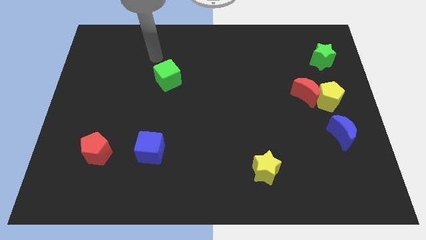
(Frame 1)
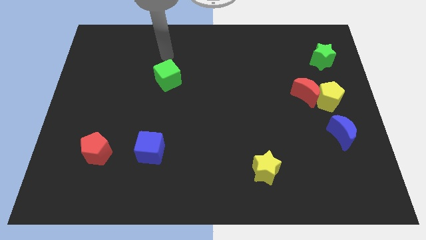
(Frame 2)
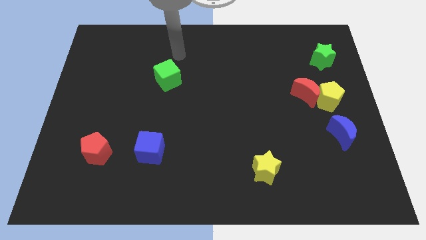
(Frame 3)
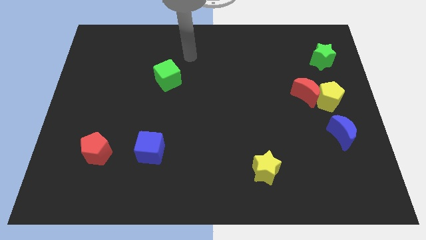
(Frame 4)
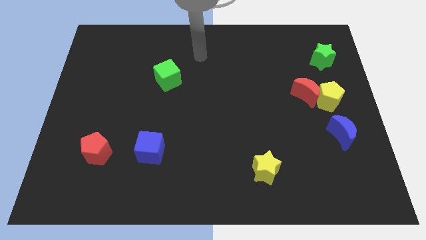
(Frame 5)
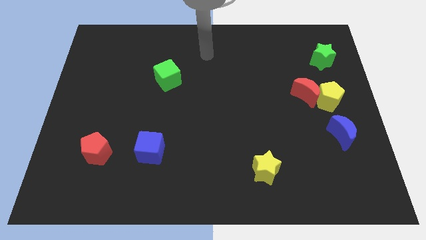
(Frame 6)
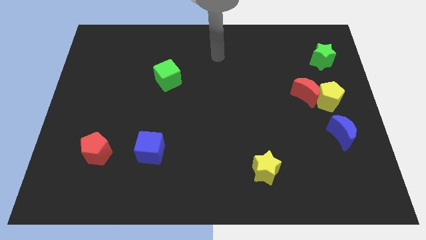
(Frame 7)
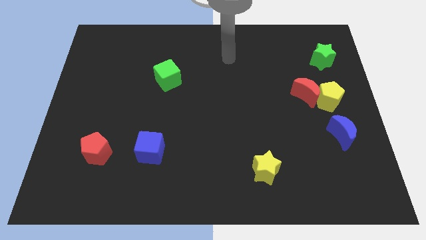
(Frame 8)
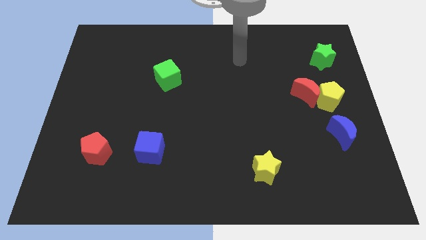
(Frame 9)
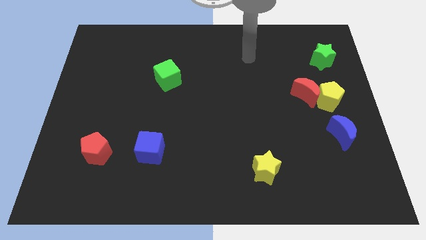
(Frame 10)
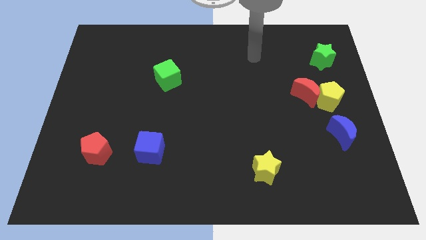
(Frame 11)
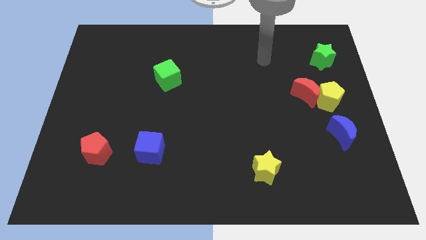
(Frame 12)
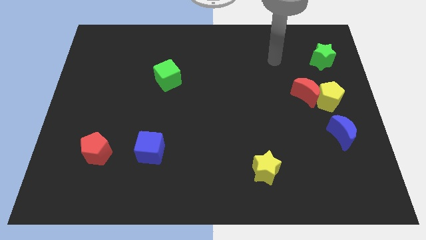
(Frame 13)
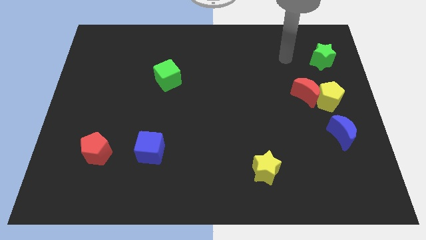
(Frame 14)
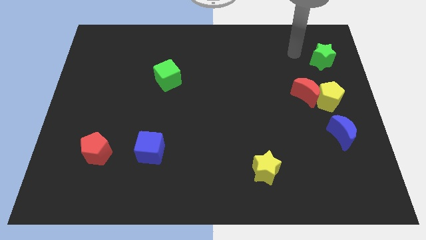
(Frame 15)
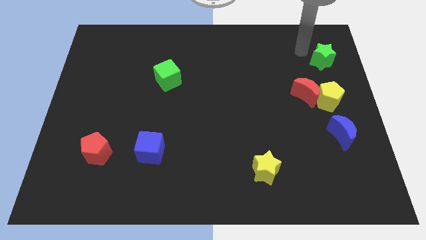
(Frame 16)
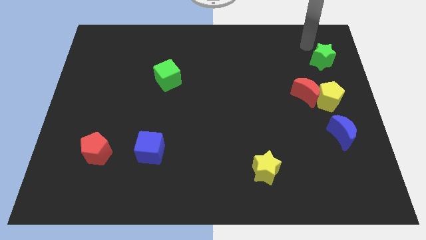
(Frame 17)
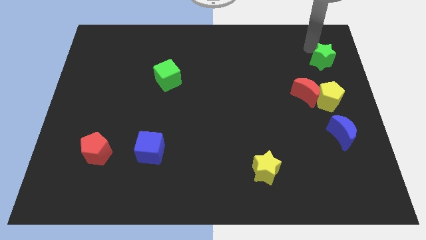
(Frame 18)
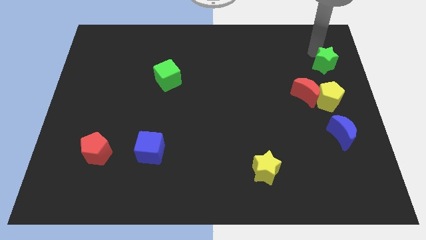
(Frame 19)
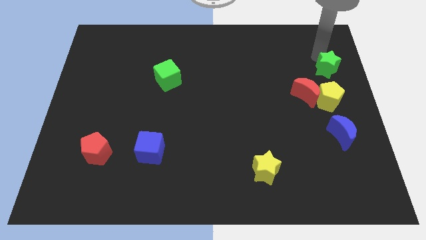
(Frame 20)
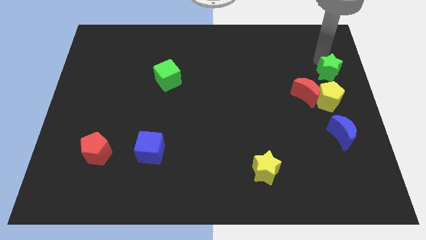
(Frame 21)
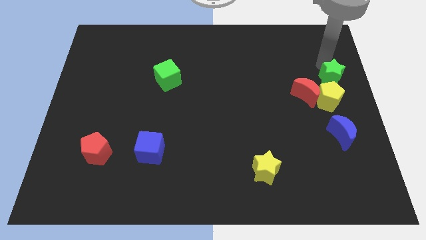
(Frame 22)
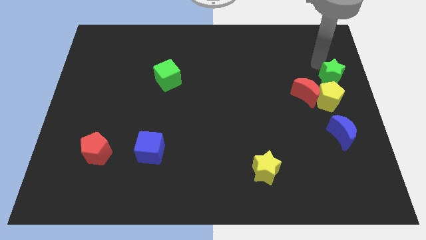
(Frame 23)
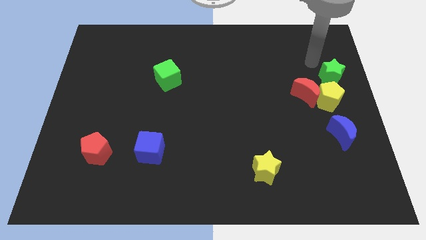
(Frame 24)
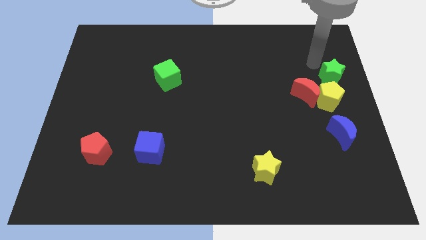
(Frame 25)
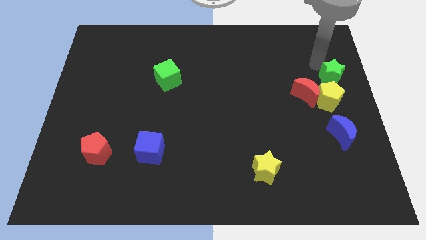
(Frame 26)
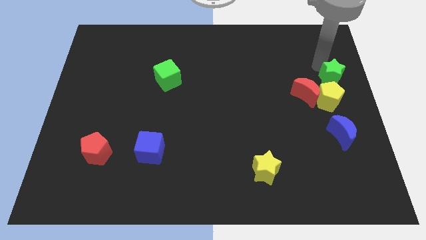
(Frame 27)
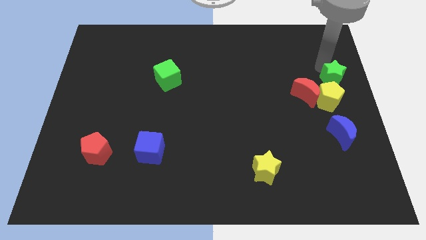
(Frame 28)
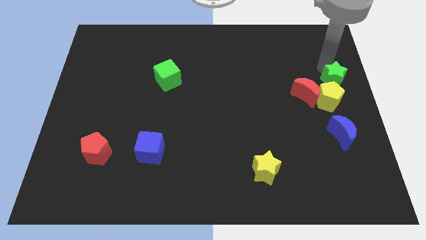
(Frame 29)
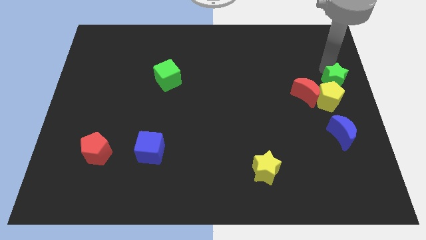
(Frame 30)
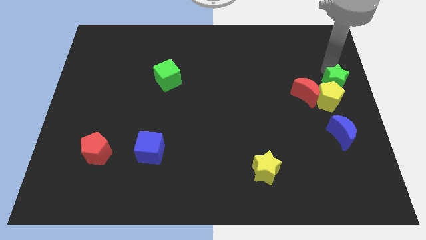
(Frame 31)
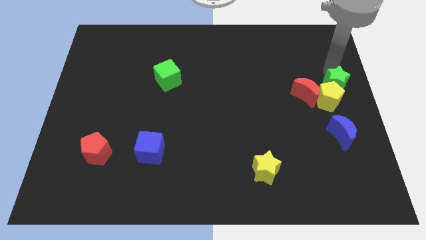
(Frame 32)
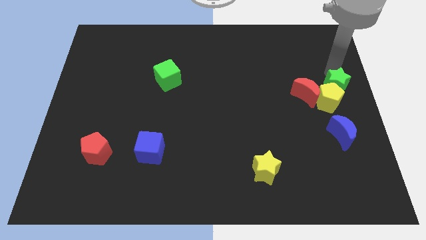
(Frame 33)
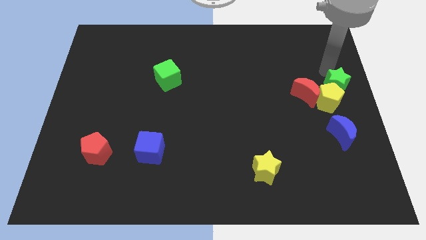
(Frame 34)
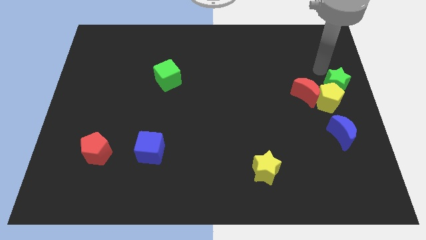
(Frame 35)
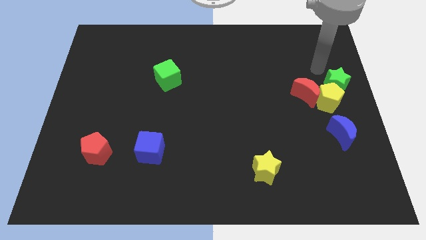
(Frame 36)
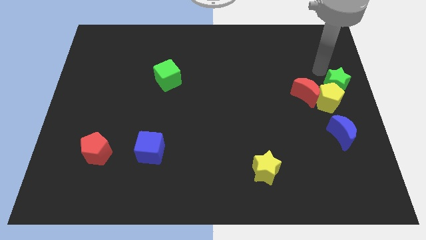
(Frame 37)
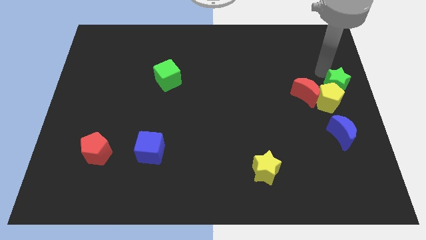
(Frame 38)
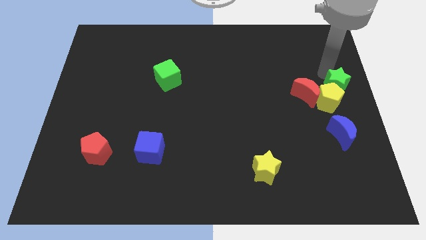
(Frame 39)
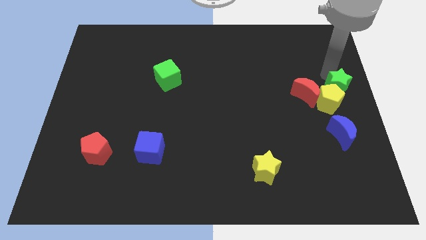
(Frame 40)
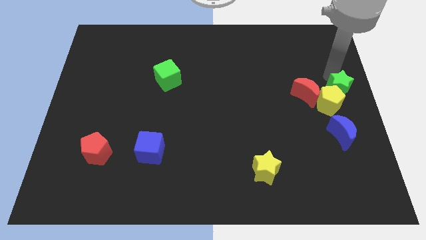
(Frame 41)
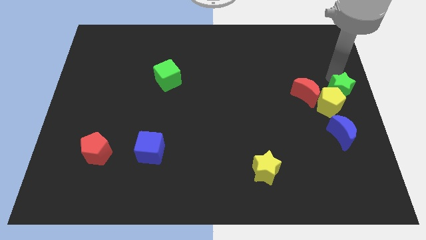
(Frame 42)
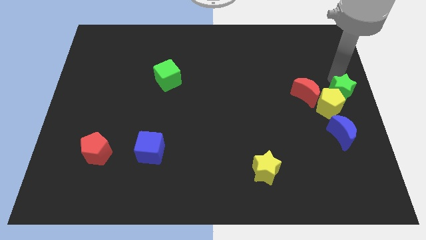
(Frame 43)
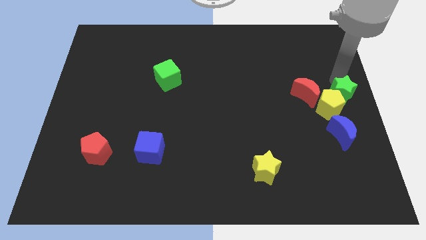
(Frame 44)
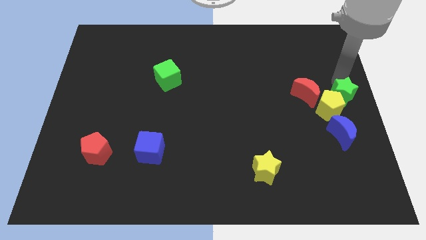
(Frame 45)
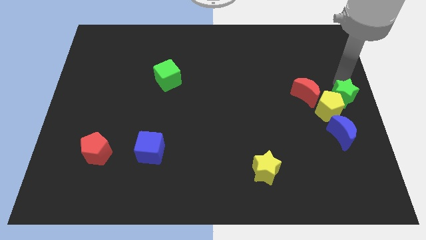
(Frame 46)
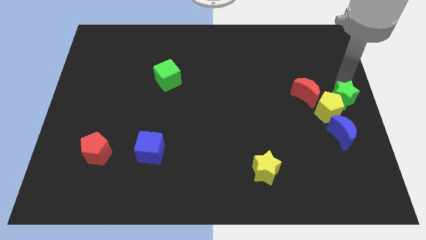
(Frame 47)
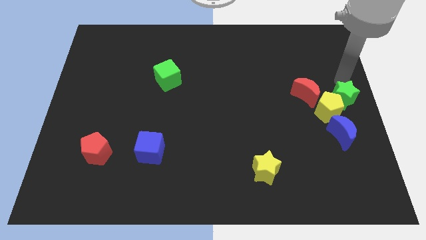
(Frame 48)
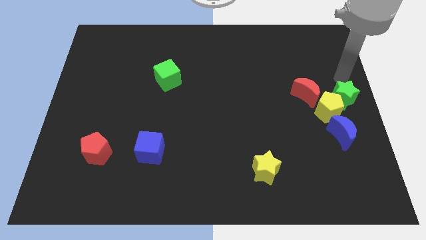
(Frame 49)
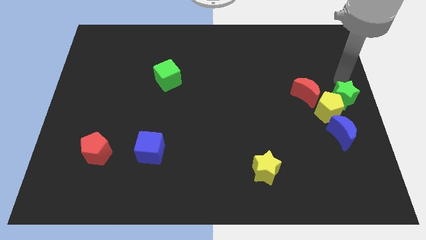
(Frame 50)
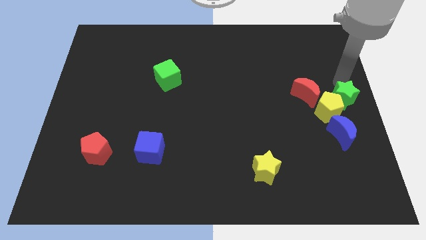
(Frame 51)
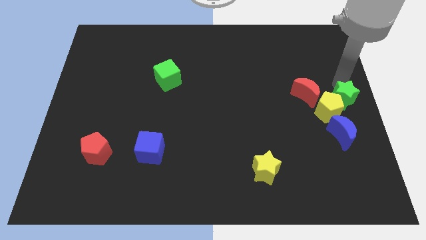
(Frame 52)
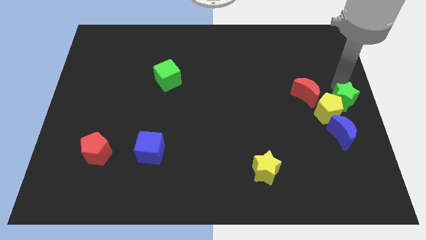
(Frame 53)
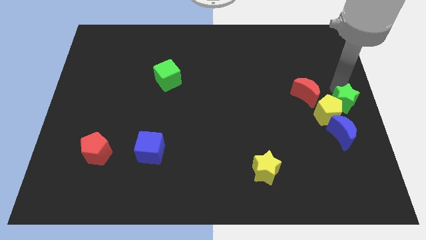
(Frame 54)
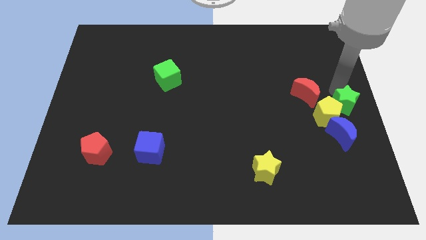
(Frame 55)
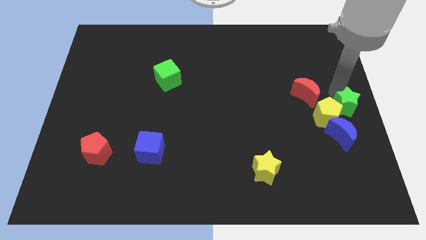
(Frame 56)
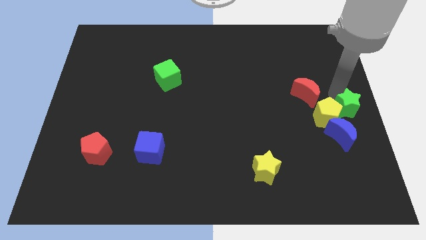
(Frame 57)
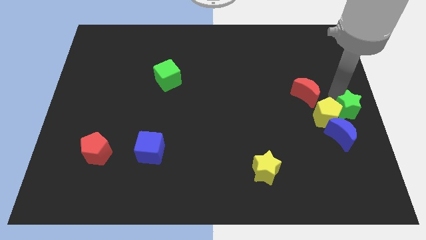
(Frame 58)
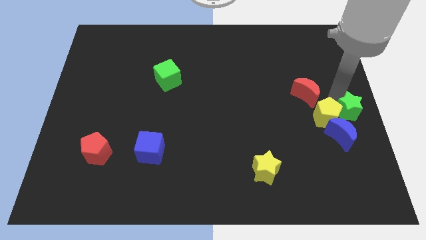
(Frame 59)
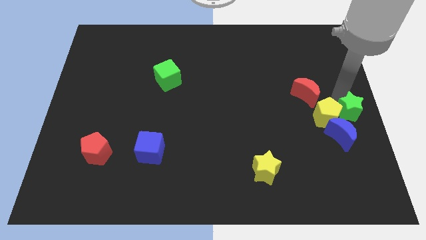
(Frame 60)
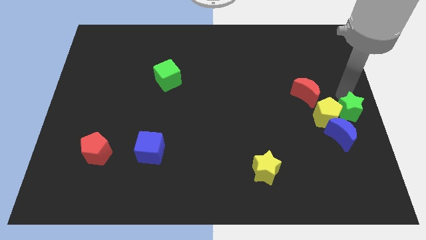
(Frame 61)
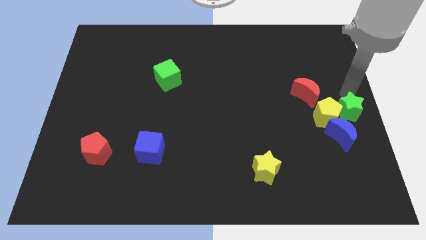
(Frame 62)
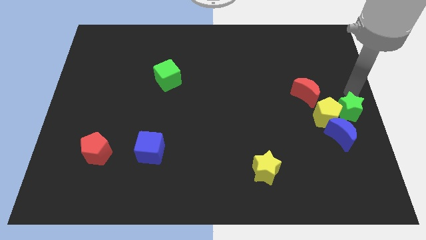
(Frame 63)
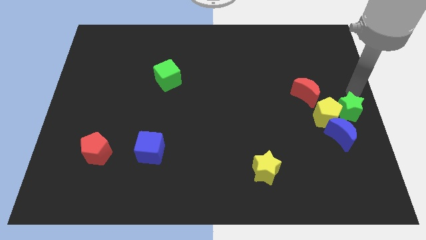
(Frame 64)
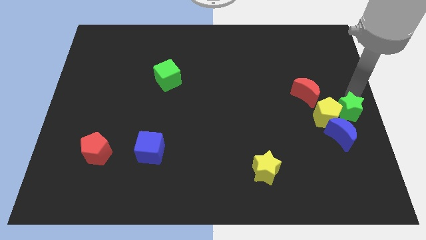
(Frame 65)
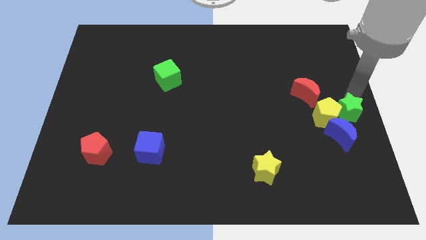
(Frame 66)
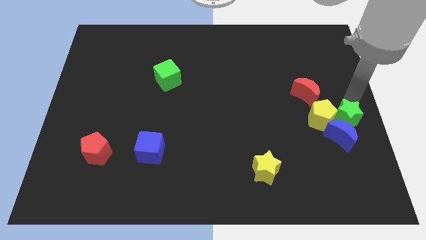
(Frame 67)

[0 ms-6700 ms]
move the green star to the blue moon

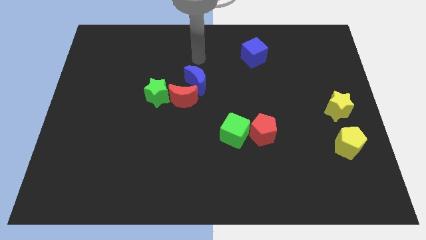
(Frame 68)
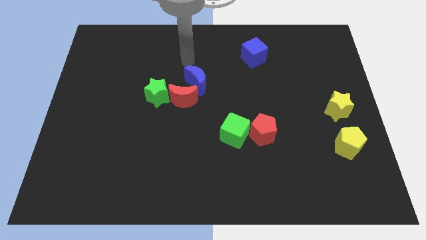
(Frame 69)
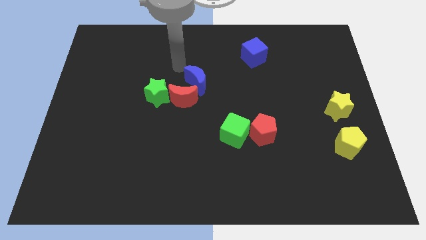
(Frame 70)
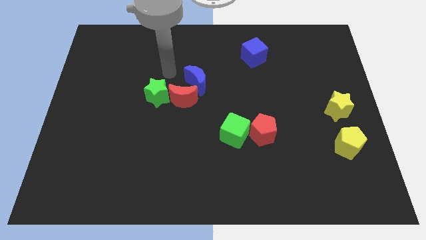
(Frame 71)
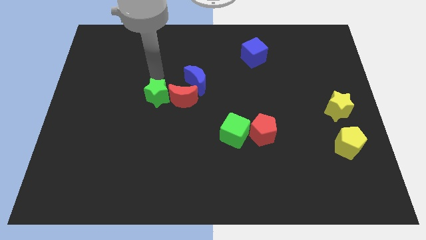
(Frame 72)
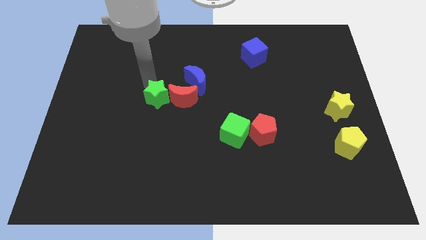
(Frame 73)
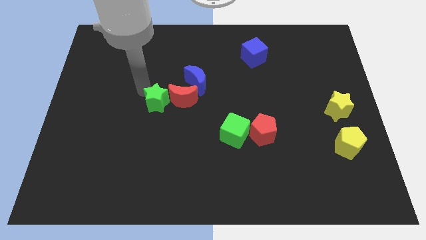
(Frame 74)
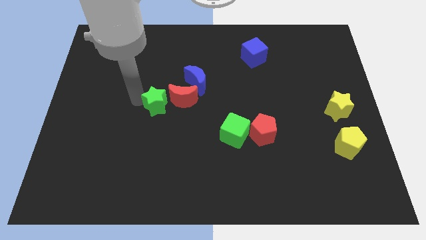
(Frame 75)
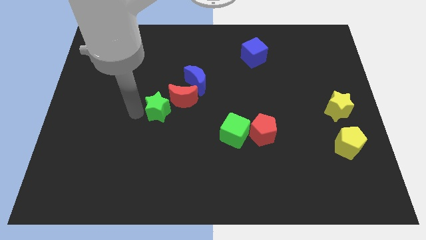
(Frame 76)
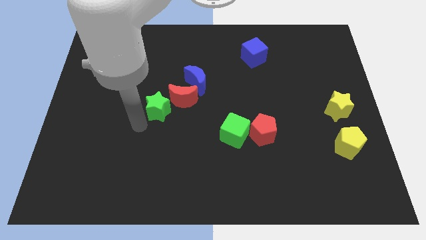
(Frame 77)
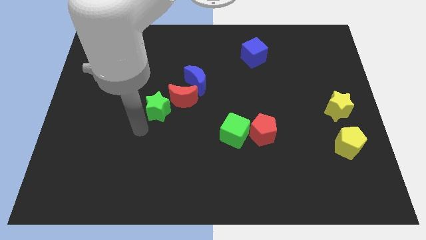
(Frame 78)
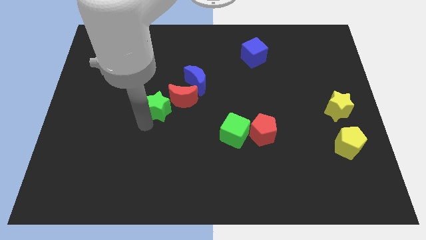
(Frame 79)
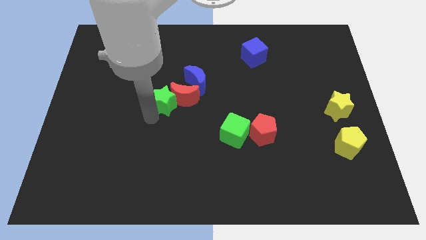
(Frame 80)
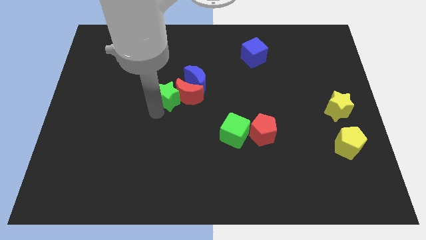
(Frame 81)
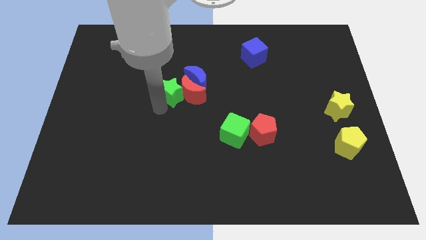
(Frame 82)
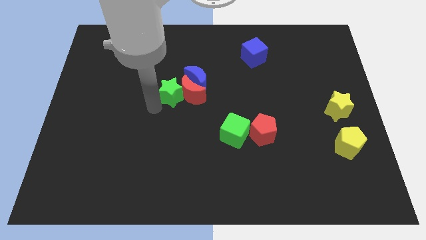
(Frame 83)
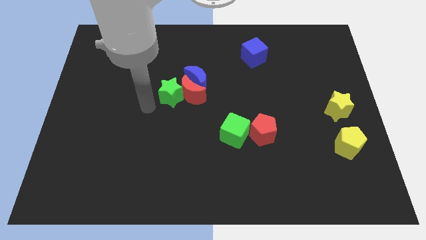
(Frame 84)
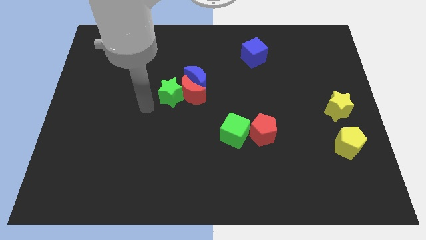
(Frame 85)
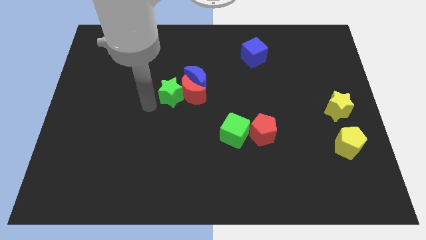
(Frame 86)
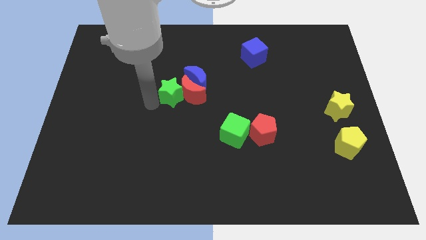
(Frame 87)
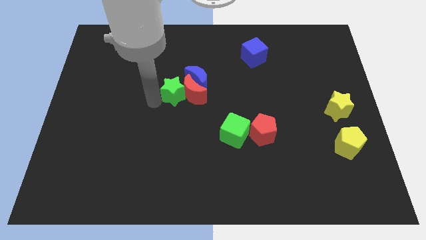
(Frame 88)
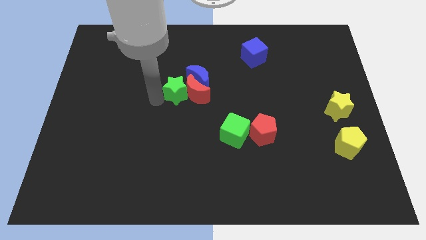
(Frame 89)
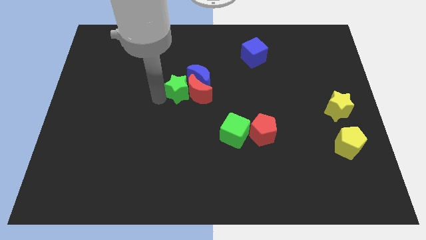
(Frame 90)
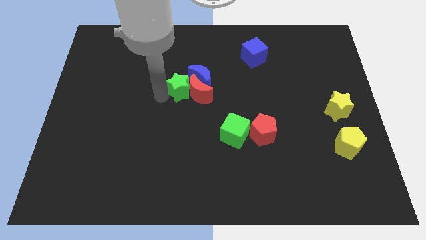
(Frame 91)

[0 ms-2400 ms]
move the green star close to the blue moon
